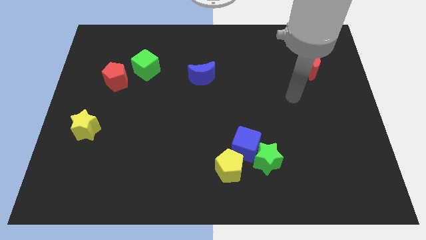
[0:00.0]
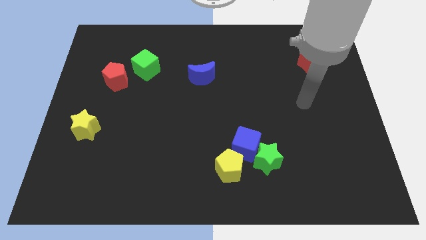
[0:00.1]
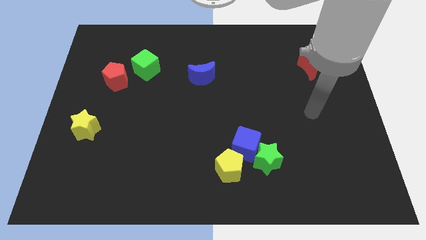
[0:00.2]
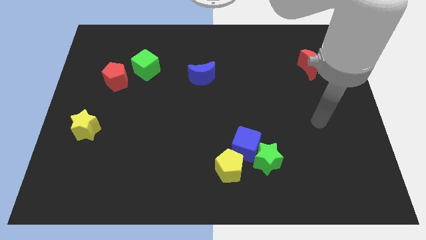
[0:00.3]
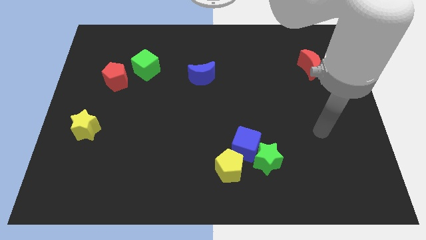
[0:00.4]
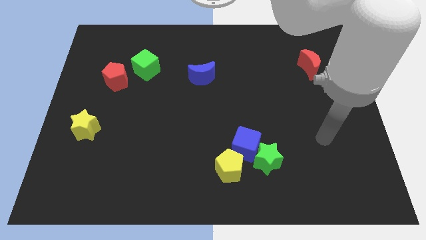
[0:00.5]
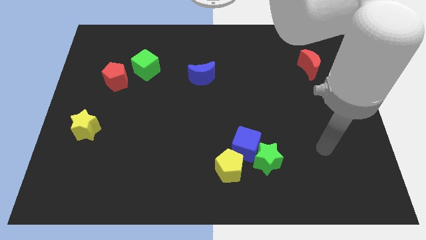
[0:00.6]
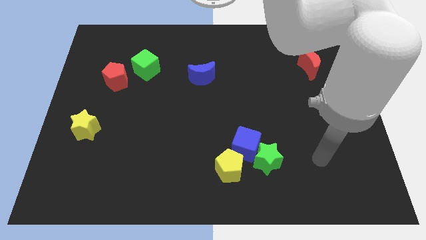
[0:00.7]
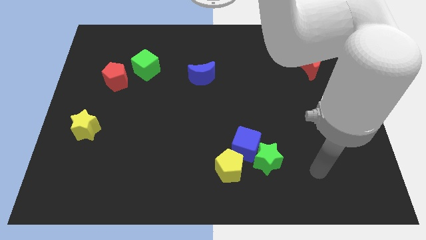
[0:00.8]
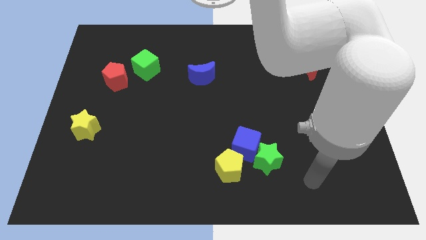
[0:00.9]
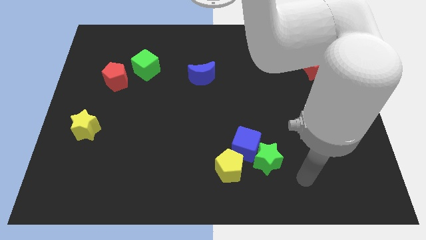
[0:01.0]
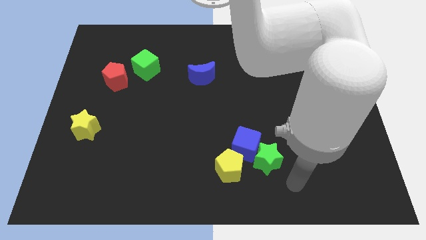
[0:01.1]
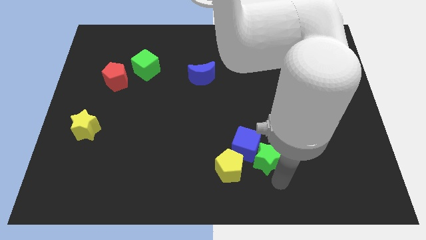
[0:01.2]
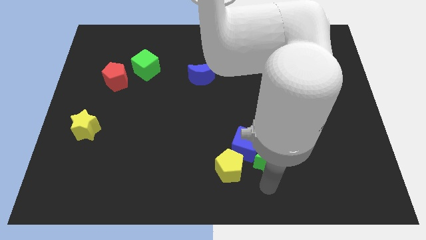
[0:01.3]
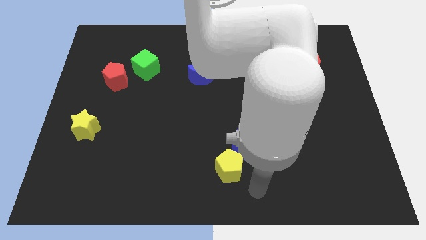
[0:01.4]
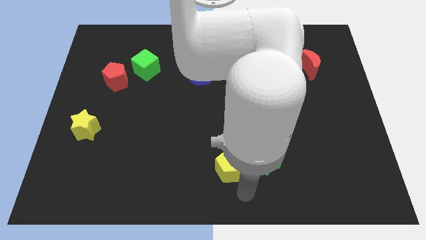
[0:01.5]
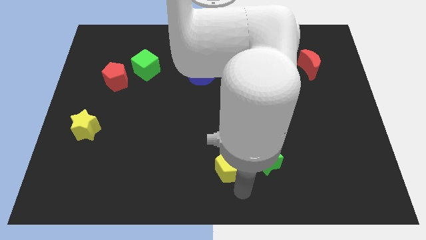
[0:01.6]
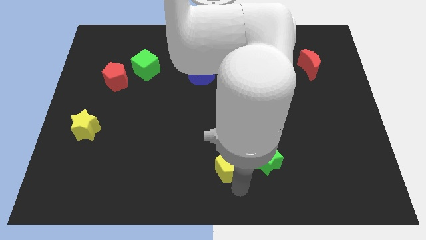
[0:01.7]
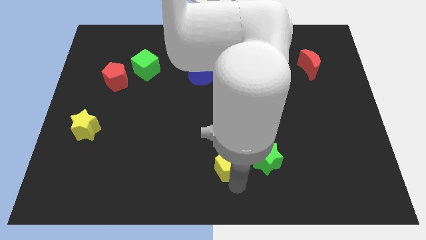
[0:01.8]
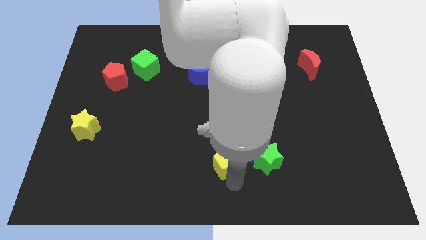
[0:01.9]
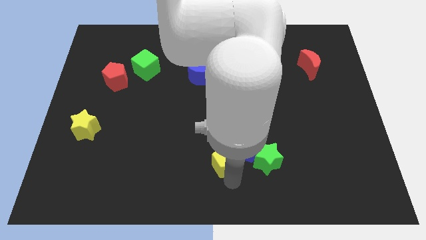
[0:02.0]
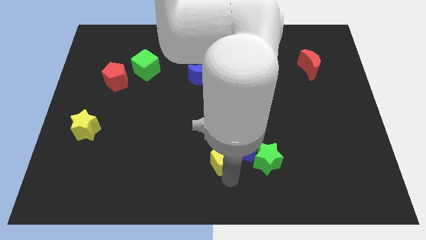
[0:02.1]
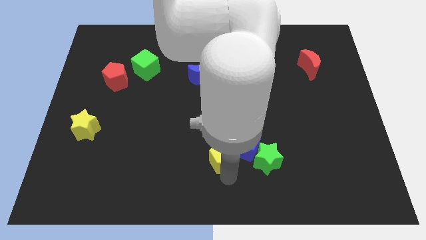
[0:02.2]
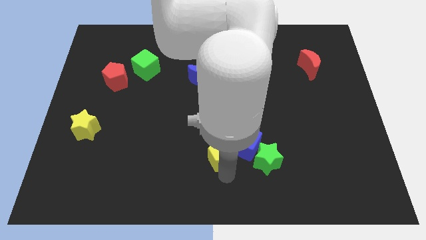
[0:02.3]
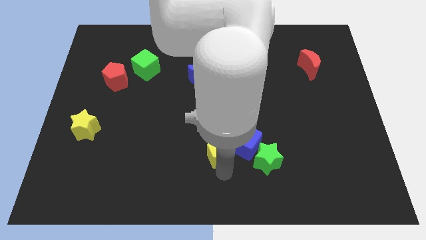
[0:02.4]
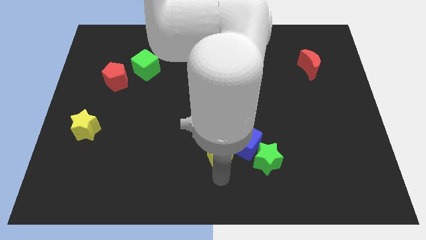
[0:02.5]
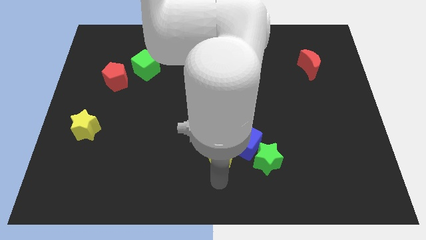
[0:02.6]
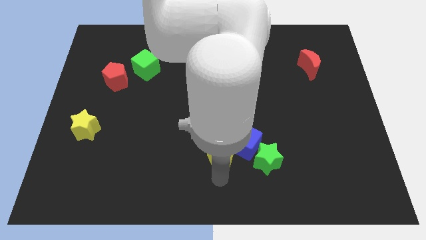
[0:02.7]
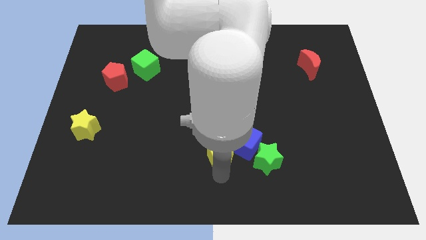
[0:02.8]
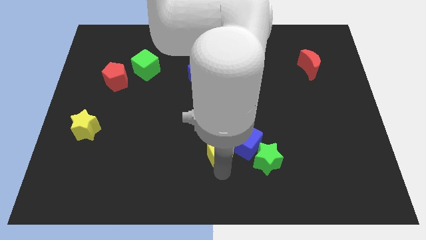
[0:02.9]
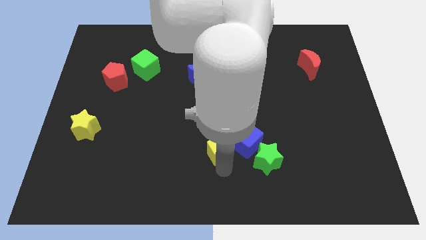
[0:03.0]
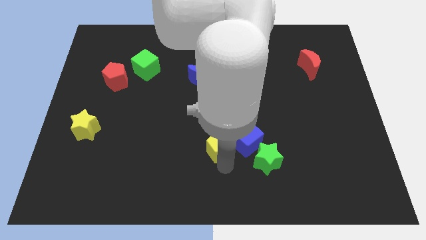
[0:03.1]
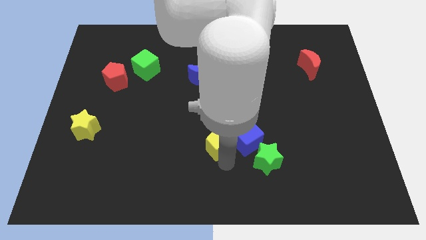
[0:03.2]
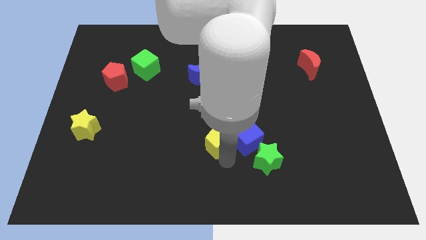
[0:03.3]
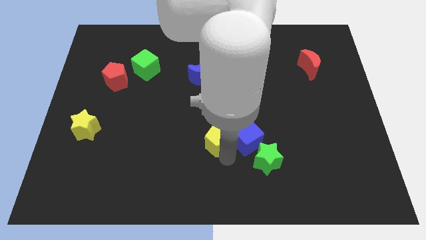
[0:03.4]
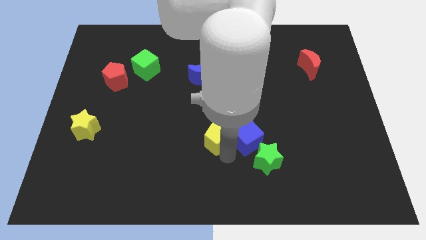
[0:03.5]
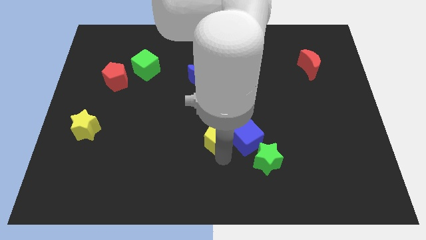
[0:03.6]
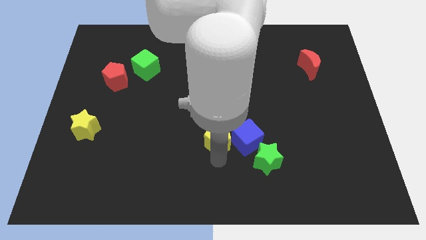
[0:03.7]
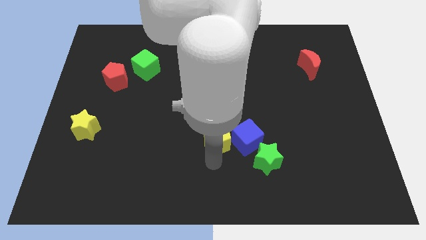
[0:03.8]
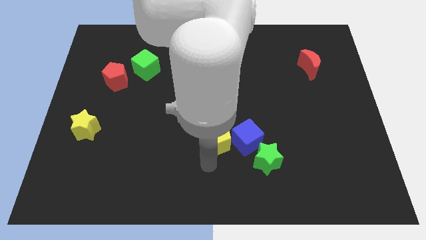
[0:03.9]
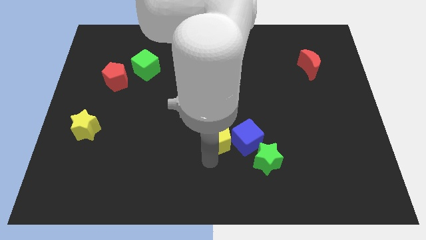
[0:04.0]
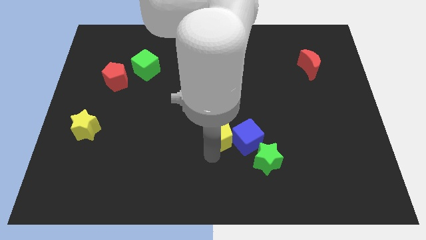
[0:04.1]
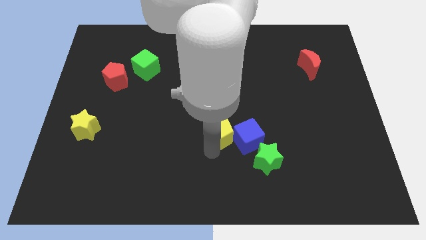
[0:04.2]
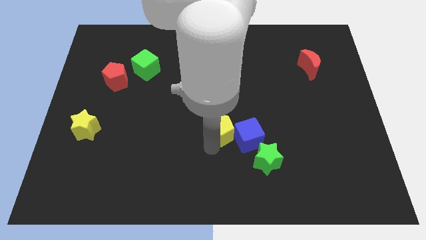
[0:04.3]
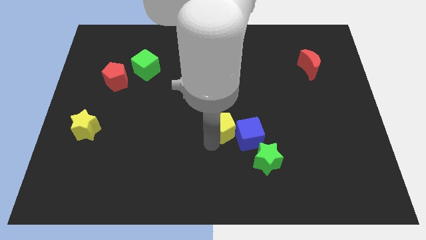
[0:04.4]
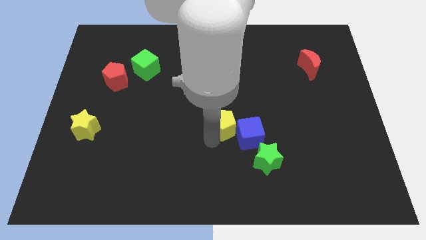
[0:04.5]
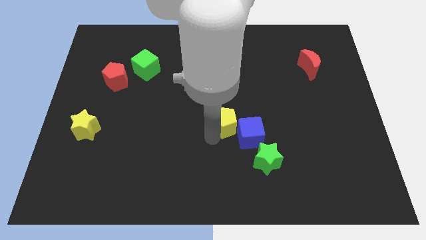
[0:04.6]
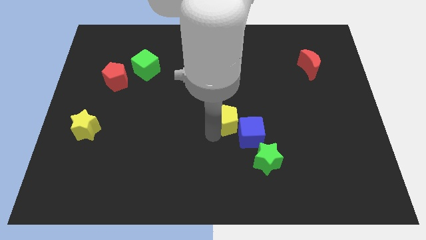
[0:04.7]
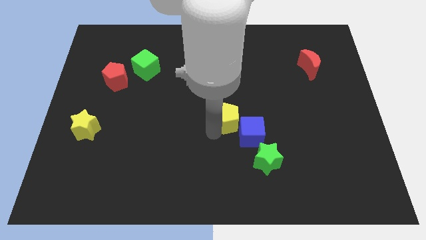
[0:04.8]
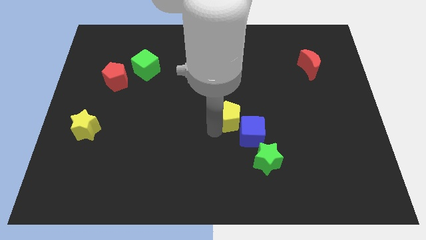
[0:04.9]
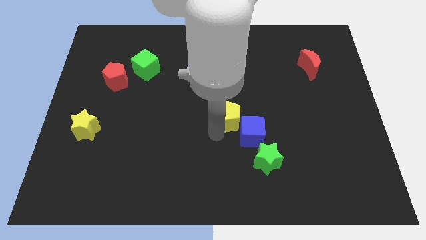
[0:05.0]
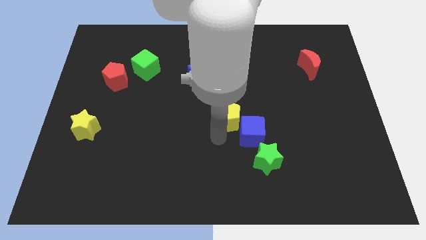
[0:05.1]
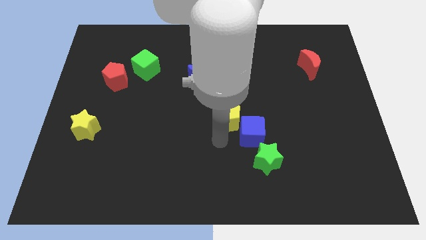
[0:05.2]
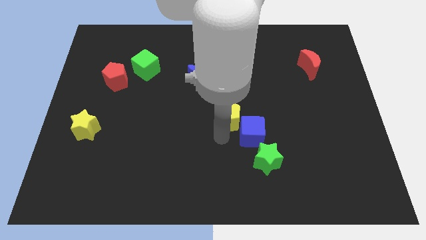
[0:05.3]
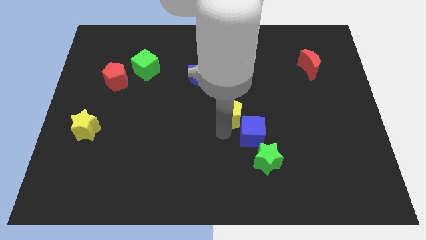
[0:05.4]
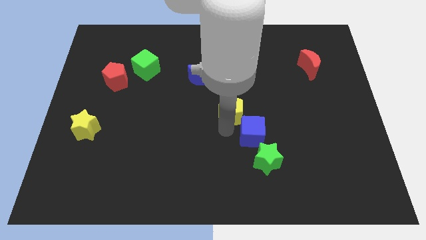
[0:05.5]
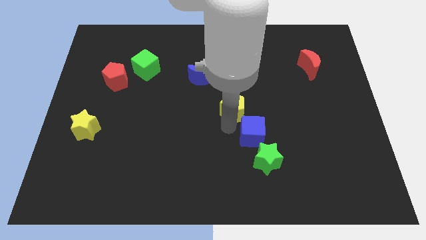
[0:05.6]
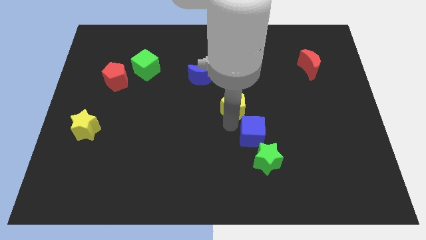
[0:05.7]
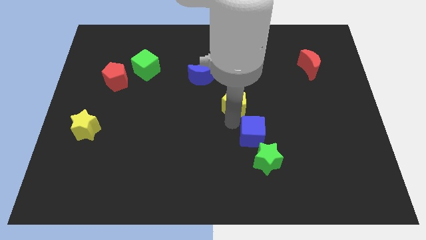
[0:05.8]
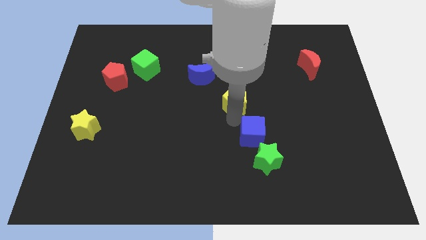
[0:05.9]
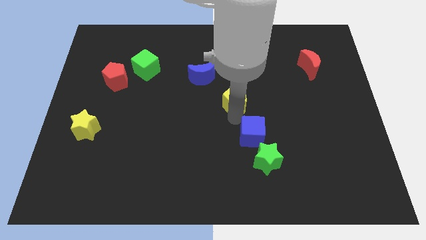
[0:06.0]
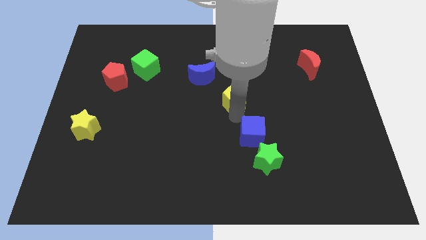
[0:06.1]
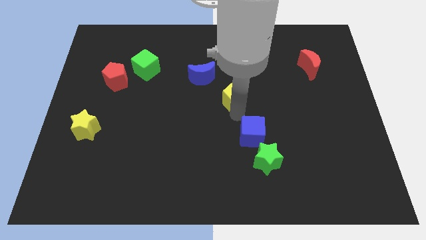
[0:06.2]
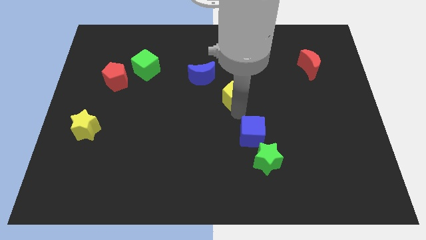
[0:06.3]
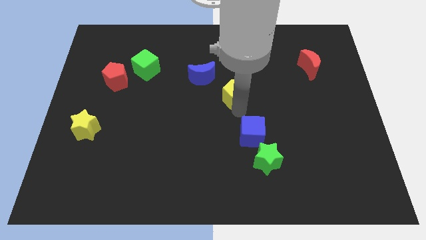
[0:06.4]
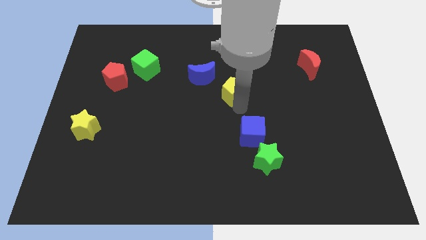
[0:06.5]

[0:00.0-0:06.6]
push the yellow pentagon upwards

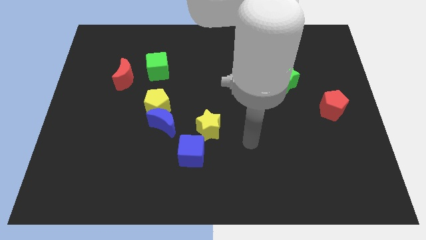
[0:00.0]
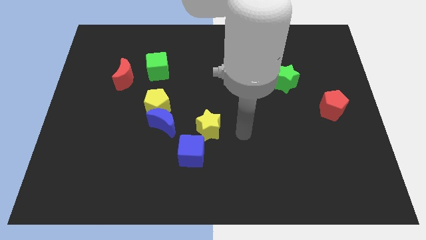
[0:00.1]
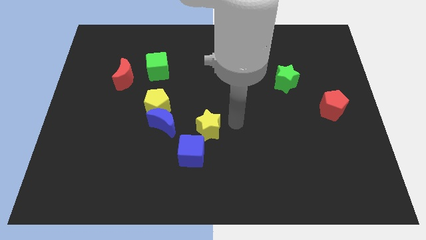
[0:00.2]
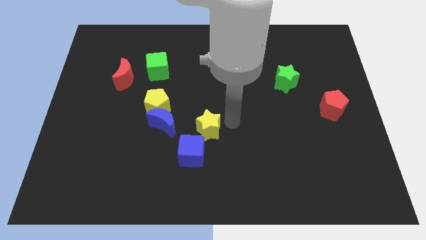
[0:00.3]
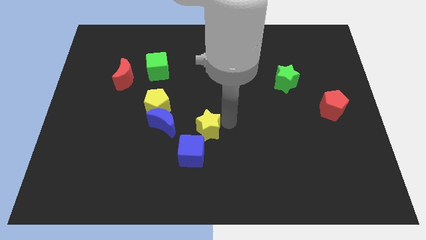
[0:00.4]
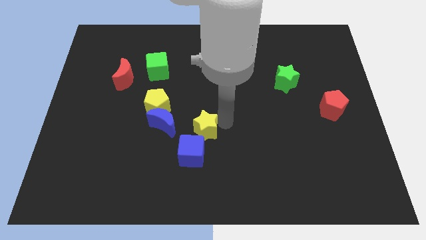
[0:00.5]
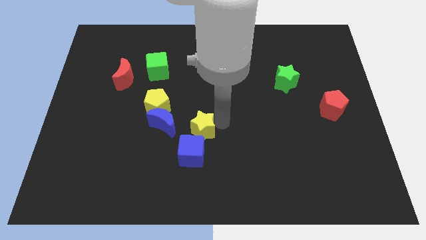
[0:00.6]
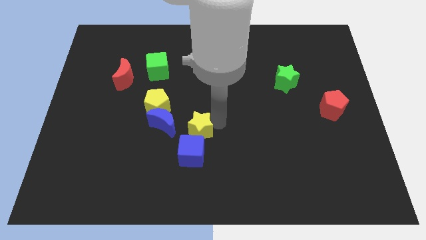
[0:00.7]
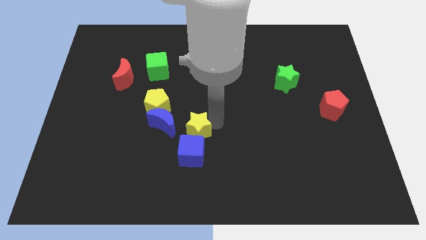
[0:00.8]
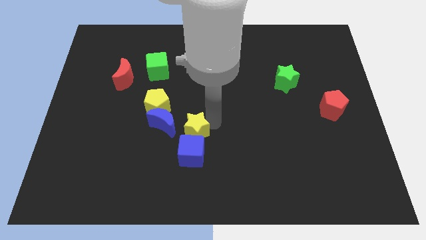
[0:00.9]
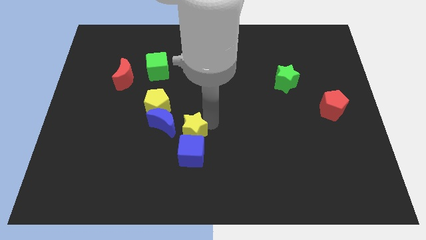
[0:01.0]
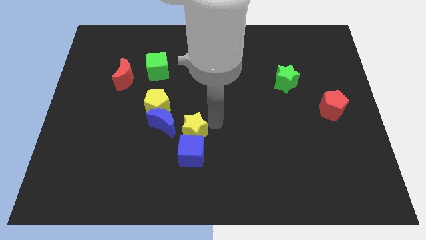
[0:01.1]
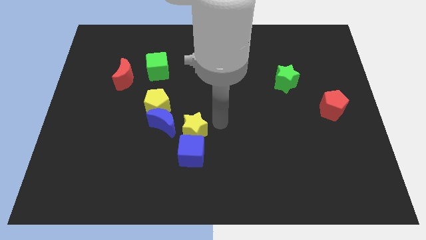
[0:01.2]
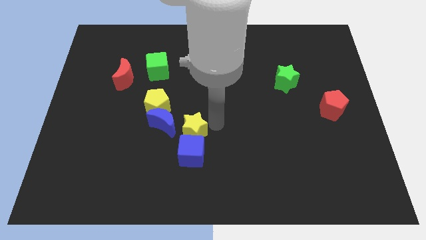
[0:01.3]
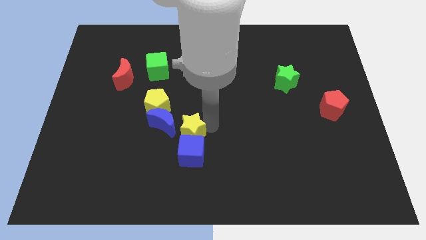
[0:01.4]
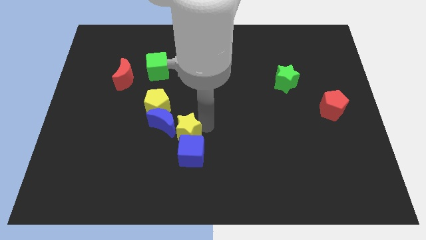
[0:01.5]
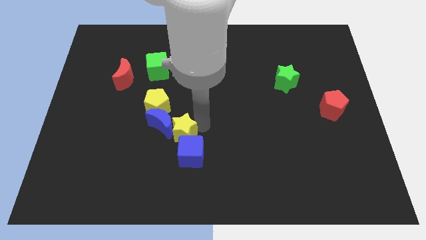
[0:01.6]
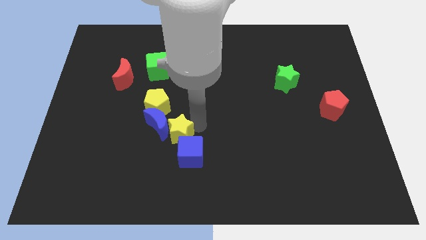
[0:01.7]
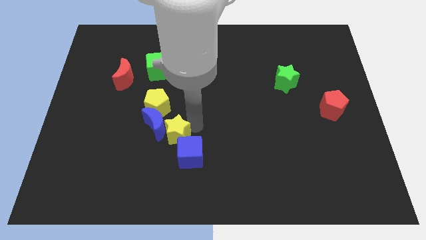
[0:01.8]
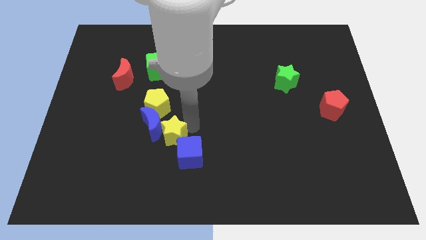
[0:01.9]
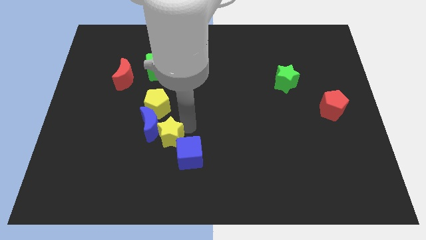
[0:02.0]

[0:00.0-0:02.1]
slightly slide the yellow star down and left
